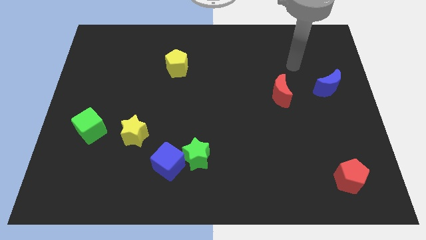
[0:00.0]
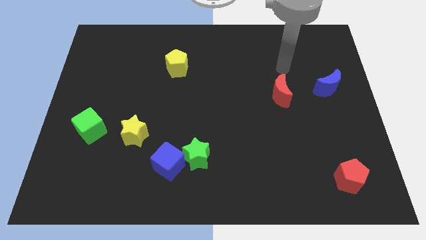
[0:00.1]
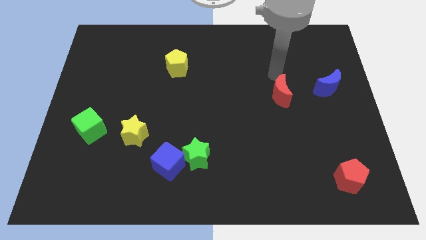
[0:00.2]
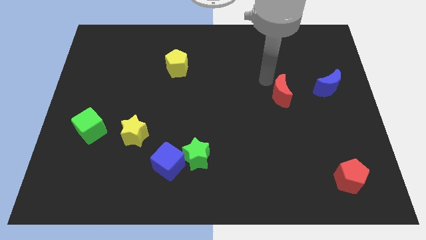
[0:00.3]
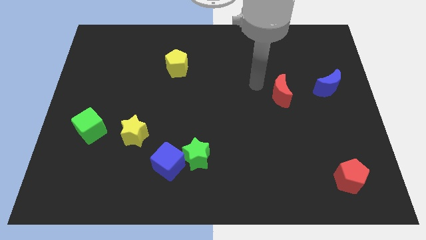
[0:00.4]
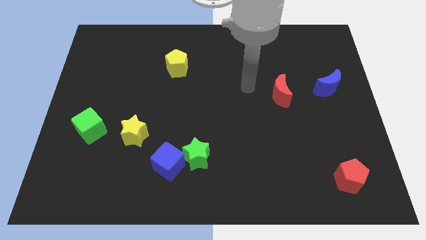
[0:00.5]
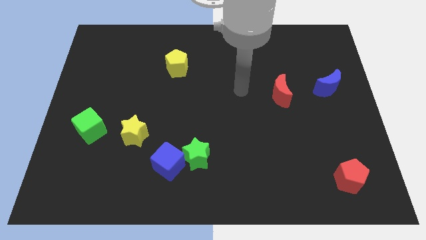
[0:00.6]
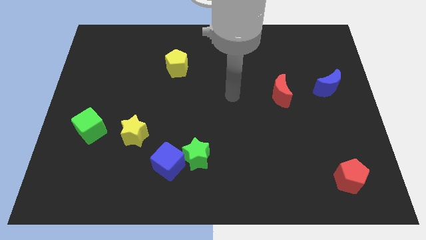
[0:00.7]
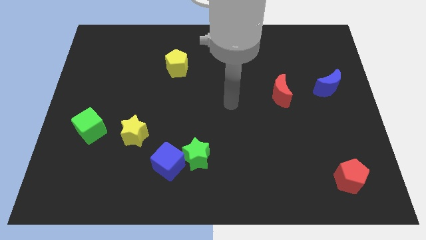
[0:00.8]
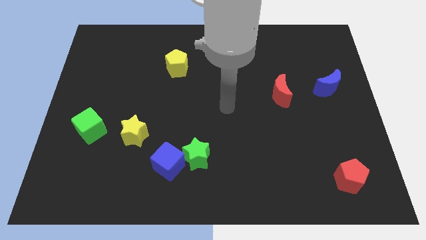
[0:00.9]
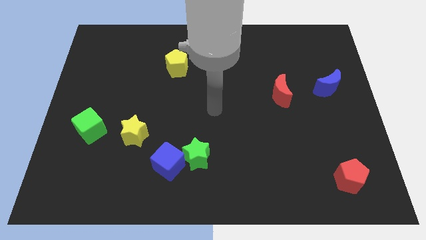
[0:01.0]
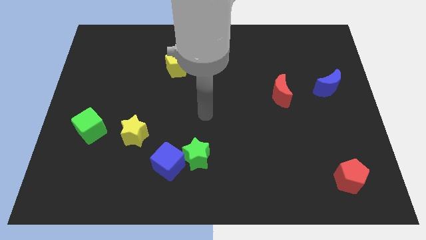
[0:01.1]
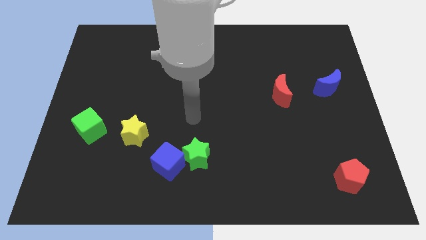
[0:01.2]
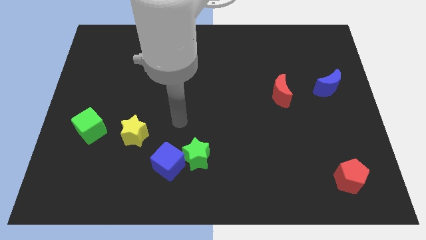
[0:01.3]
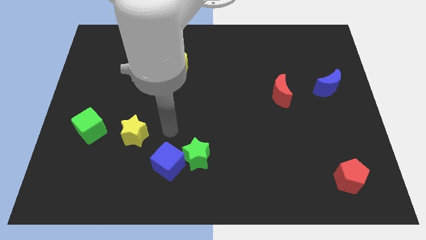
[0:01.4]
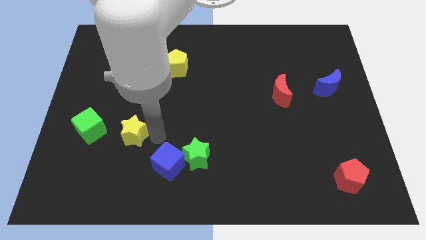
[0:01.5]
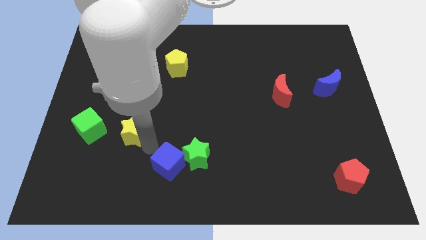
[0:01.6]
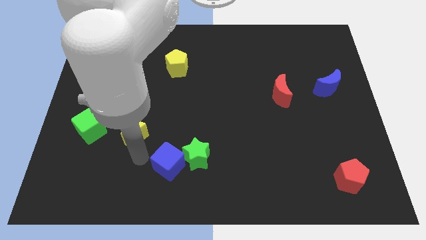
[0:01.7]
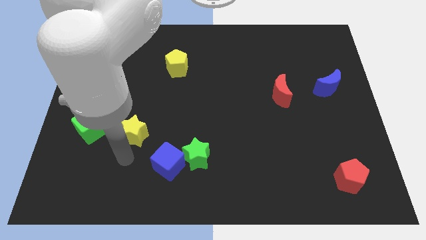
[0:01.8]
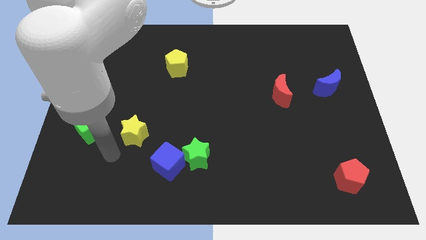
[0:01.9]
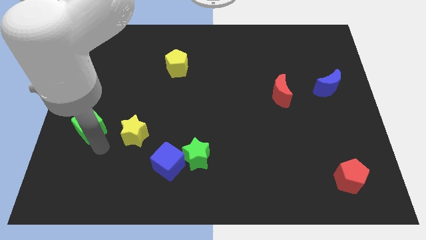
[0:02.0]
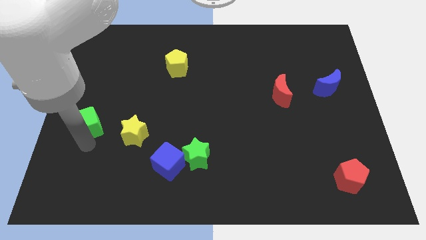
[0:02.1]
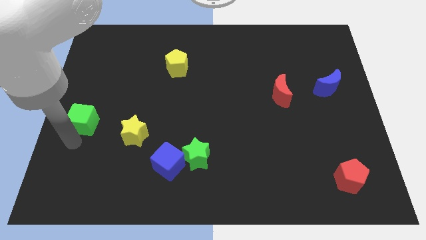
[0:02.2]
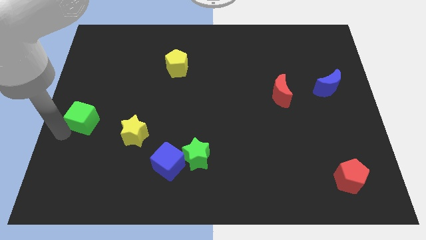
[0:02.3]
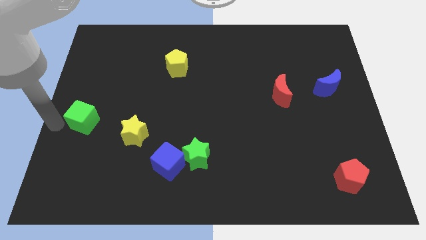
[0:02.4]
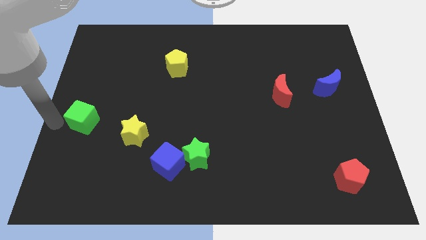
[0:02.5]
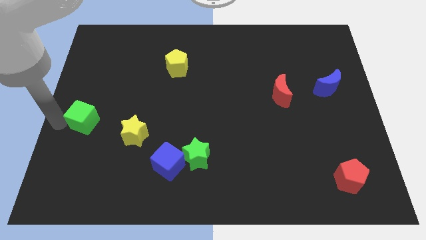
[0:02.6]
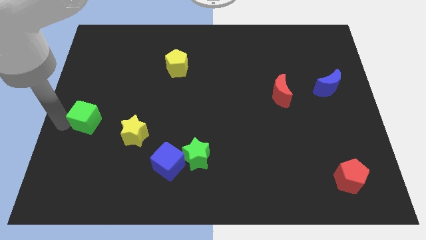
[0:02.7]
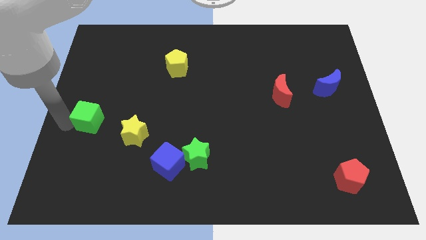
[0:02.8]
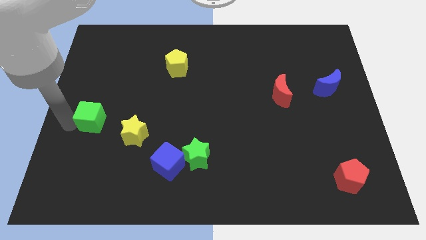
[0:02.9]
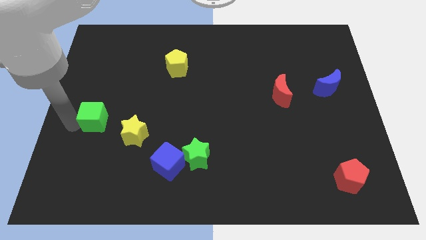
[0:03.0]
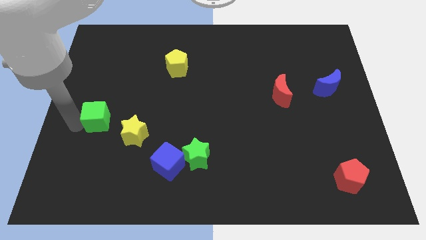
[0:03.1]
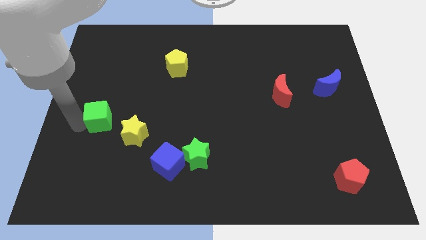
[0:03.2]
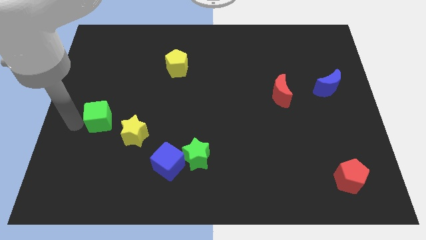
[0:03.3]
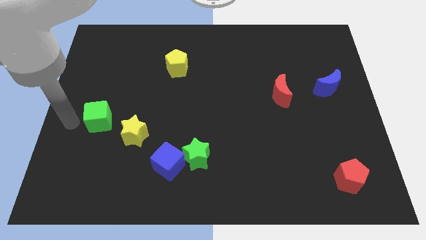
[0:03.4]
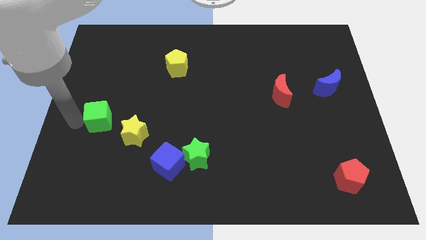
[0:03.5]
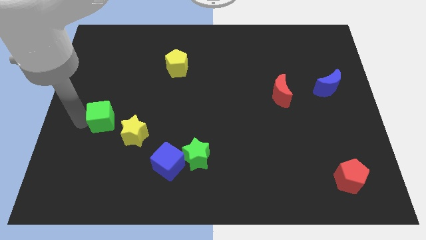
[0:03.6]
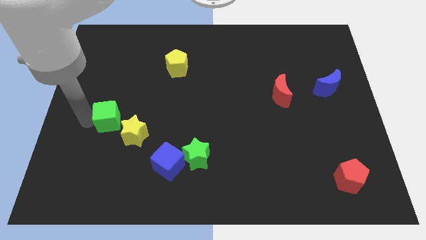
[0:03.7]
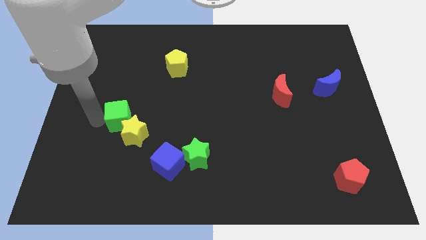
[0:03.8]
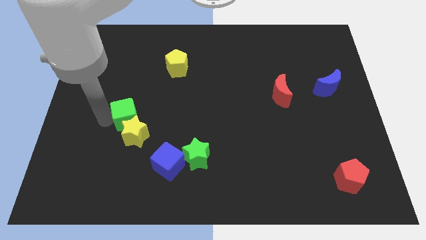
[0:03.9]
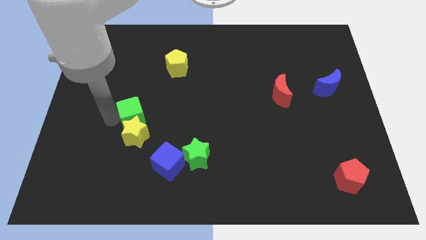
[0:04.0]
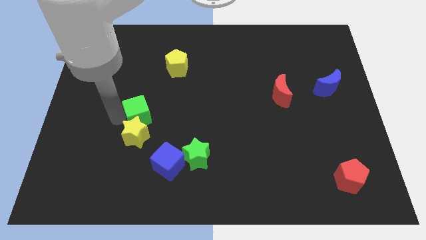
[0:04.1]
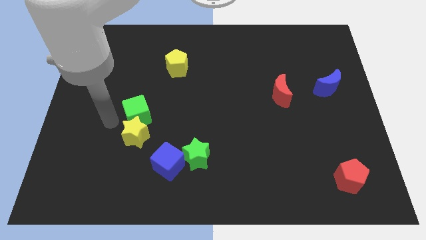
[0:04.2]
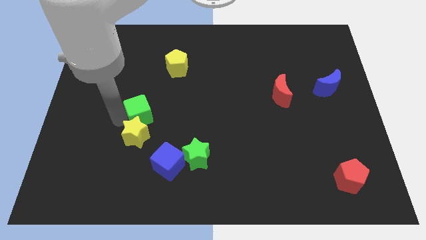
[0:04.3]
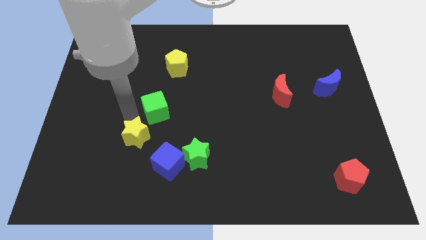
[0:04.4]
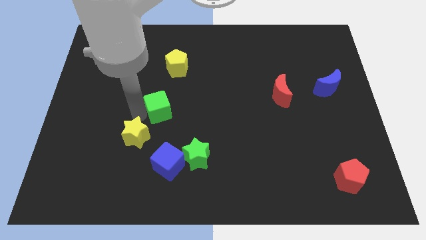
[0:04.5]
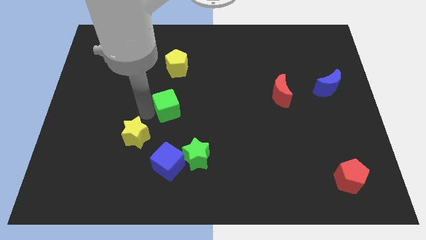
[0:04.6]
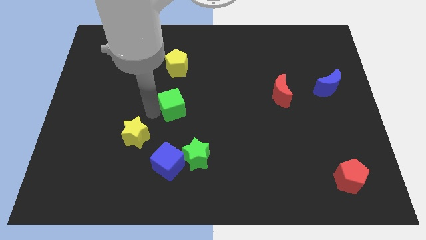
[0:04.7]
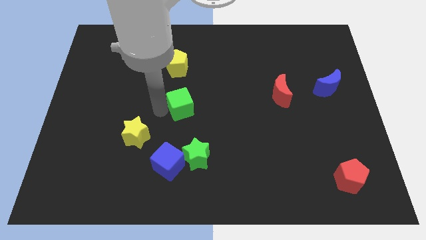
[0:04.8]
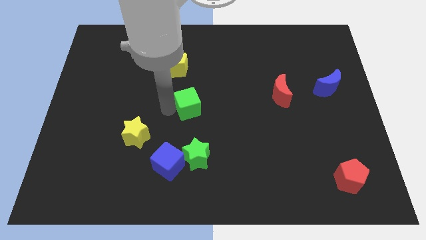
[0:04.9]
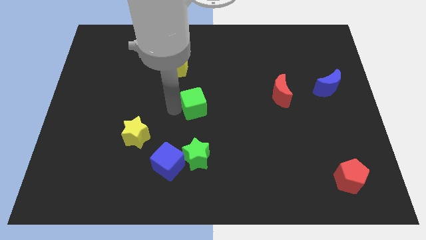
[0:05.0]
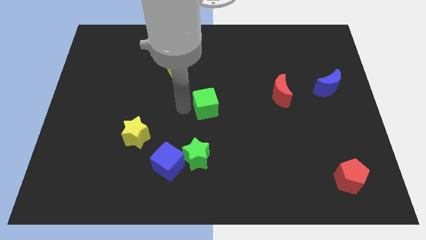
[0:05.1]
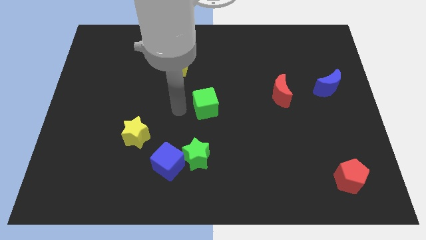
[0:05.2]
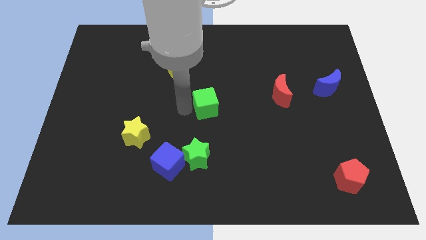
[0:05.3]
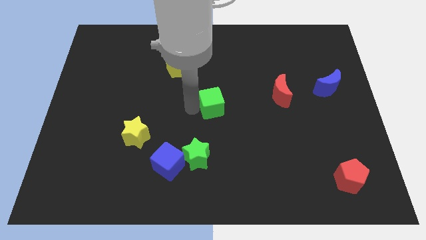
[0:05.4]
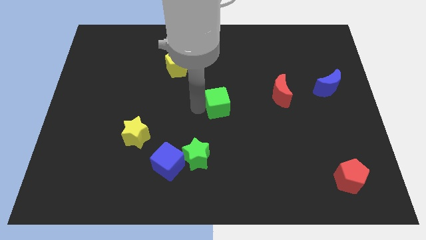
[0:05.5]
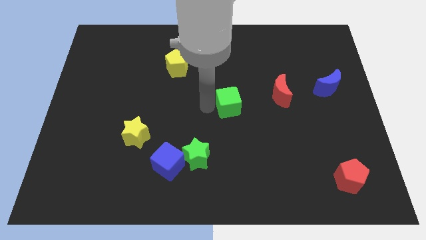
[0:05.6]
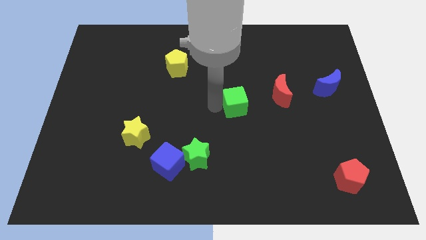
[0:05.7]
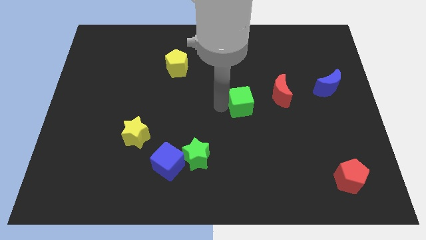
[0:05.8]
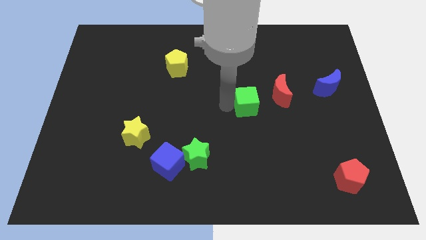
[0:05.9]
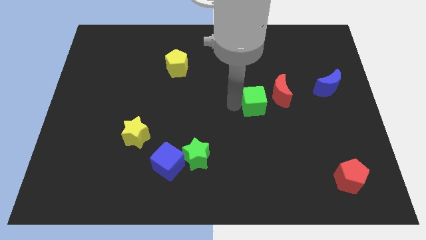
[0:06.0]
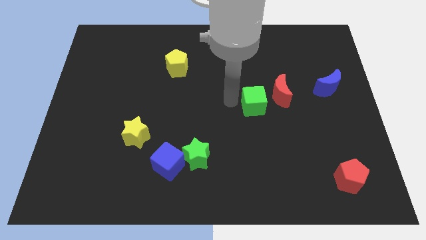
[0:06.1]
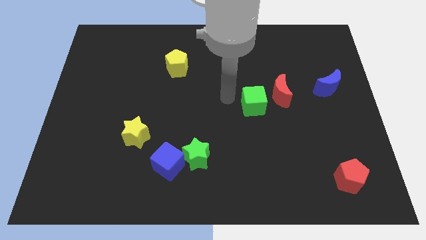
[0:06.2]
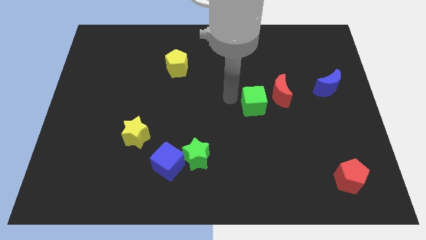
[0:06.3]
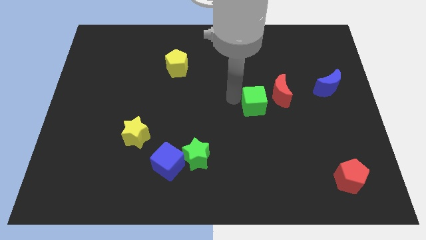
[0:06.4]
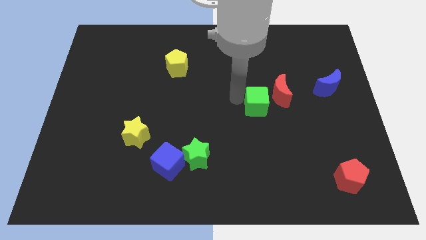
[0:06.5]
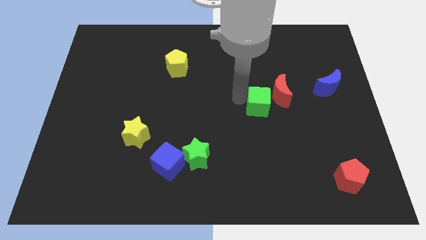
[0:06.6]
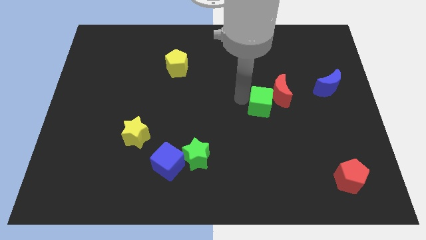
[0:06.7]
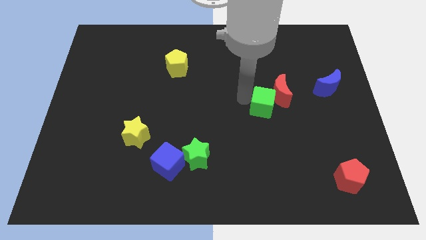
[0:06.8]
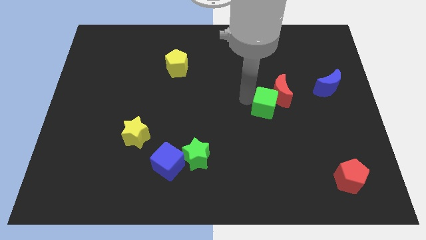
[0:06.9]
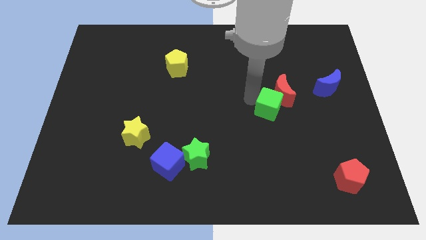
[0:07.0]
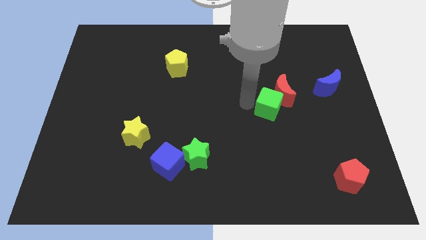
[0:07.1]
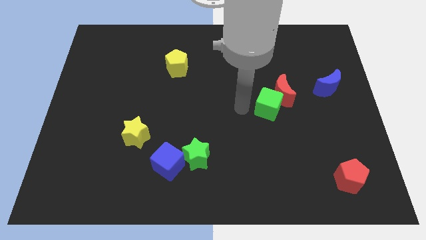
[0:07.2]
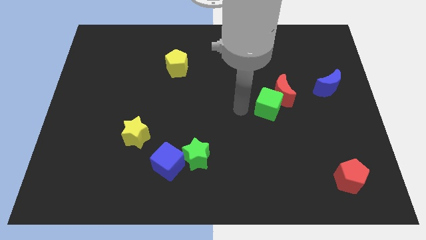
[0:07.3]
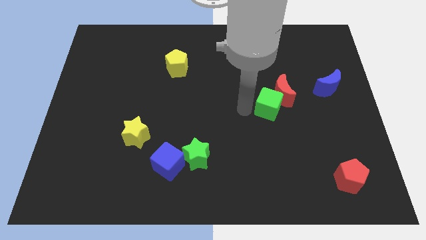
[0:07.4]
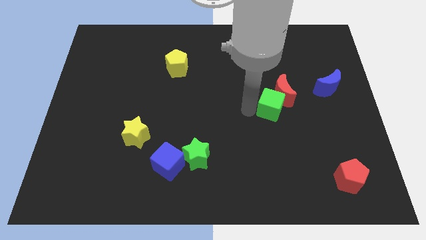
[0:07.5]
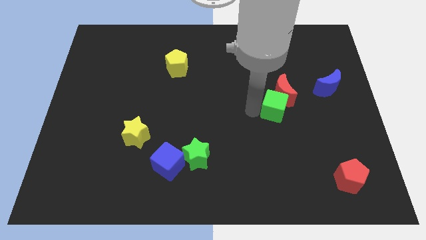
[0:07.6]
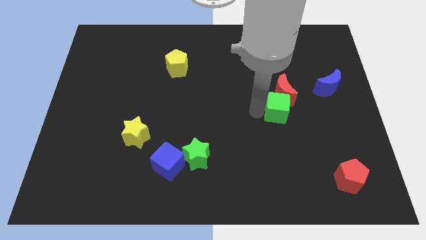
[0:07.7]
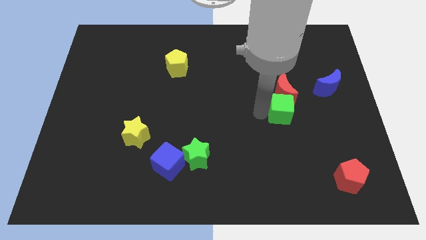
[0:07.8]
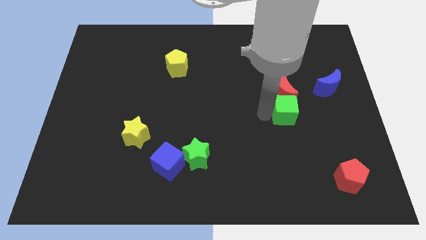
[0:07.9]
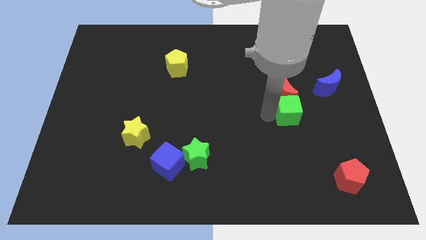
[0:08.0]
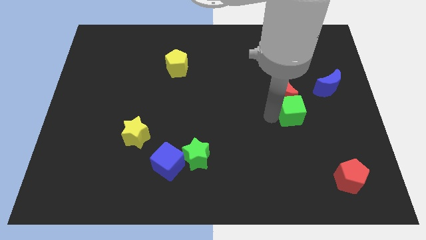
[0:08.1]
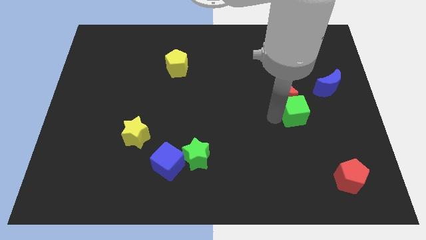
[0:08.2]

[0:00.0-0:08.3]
push the green cube to the bottom left side of the blue moon
